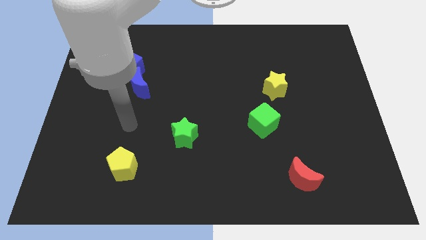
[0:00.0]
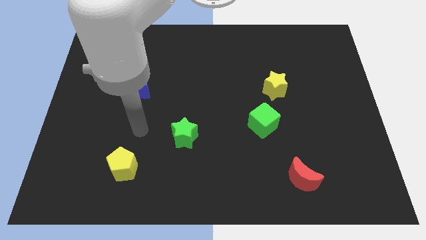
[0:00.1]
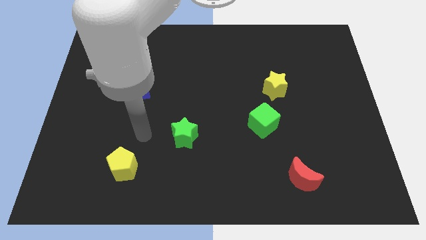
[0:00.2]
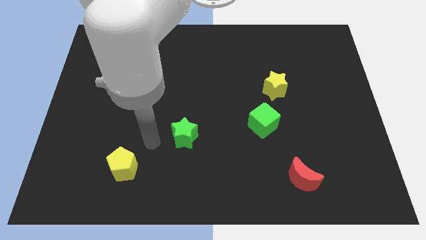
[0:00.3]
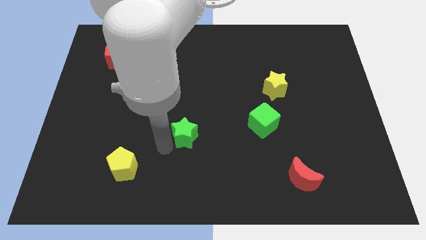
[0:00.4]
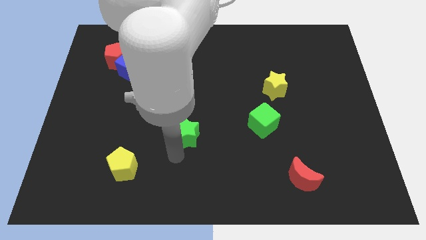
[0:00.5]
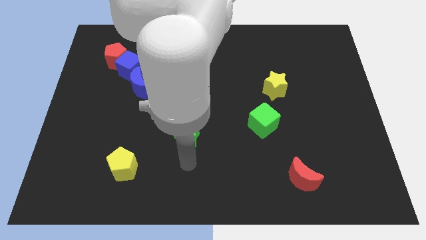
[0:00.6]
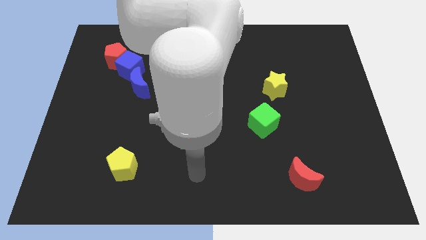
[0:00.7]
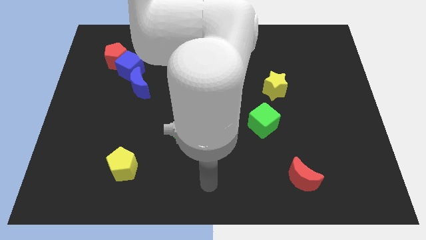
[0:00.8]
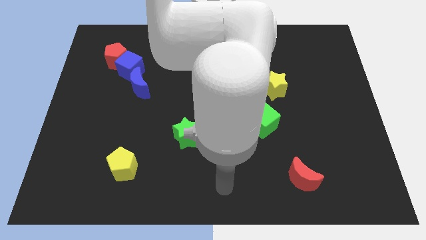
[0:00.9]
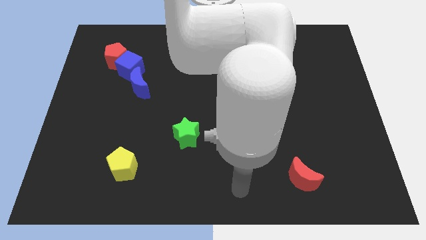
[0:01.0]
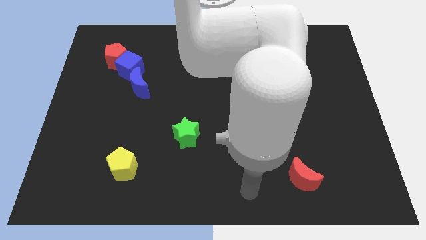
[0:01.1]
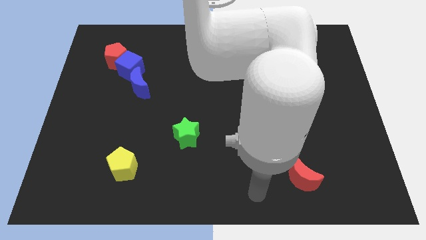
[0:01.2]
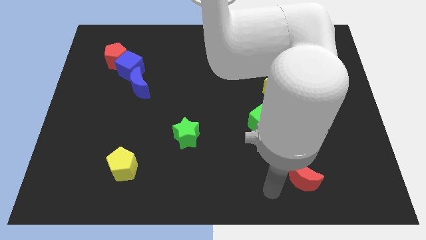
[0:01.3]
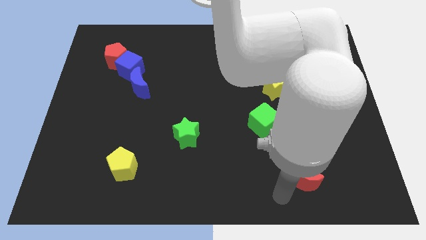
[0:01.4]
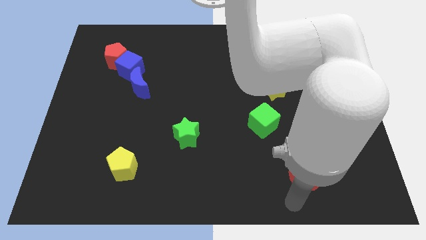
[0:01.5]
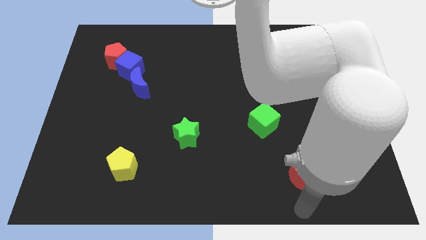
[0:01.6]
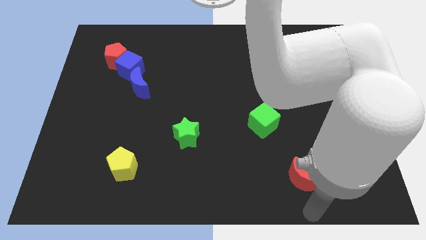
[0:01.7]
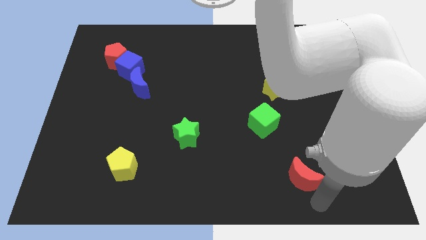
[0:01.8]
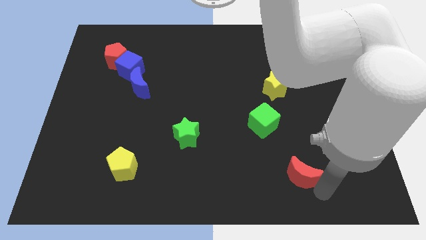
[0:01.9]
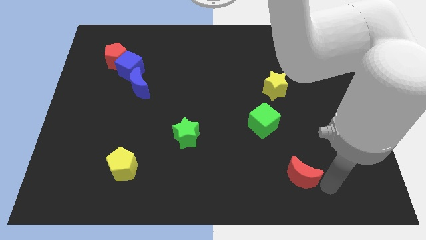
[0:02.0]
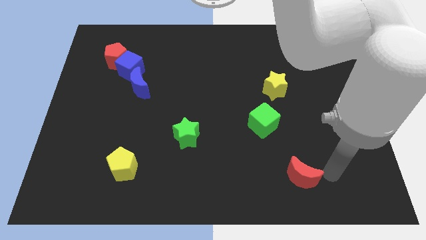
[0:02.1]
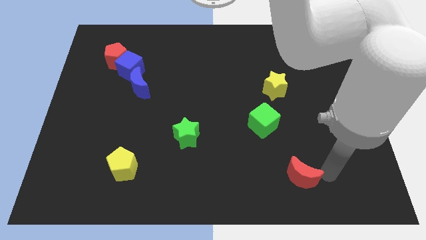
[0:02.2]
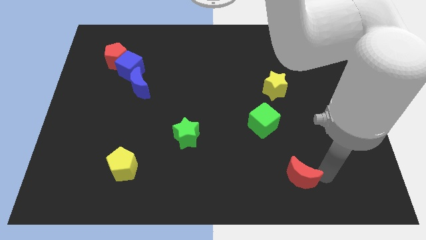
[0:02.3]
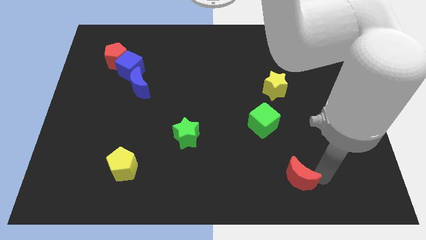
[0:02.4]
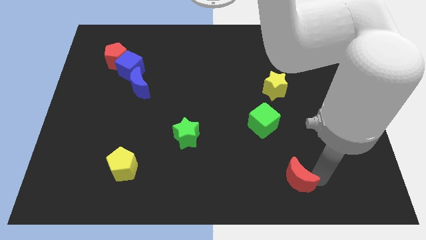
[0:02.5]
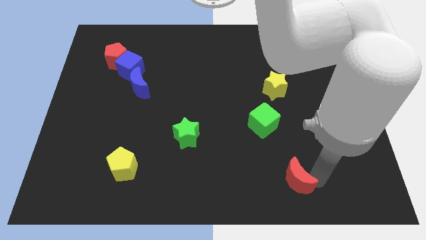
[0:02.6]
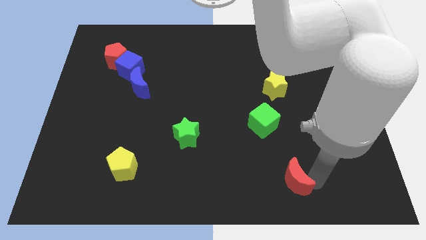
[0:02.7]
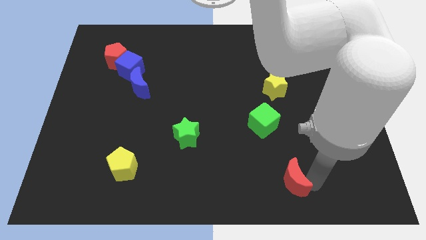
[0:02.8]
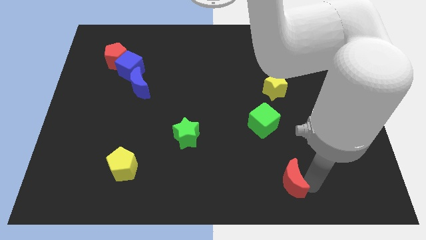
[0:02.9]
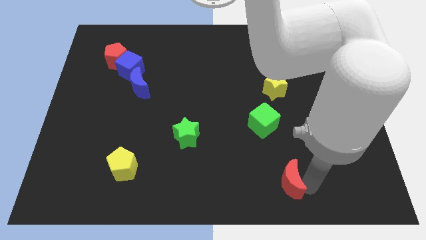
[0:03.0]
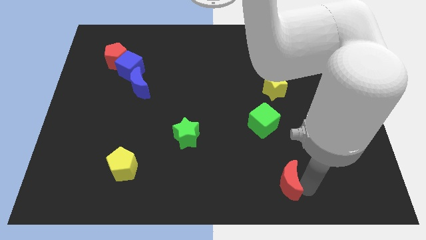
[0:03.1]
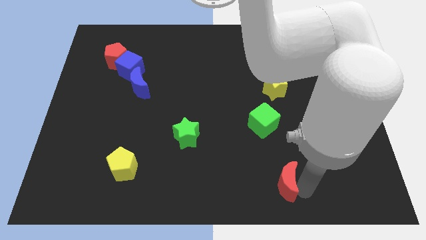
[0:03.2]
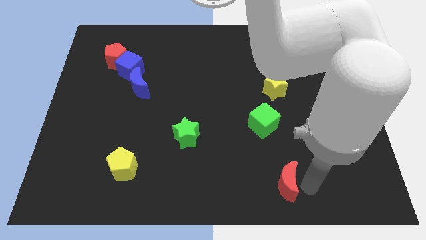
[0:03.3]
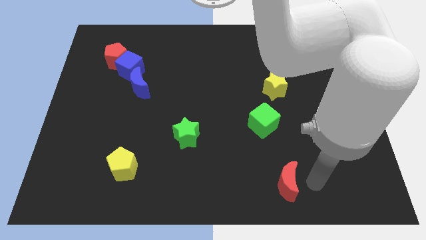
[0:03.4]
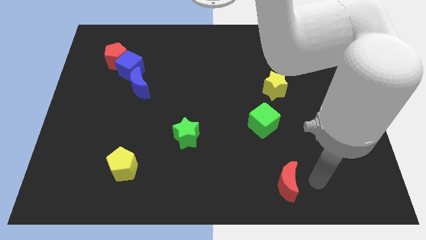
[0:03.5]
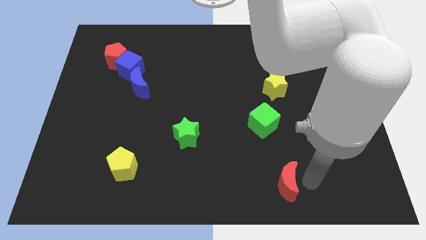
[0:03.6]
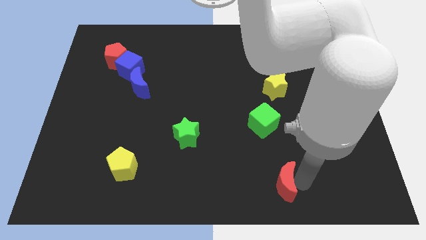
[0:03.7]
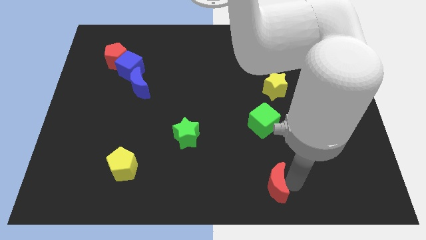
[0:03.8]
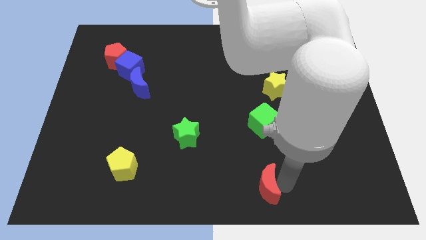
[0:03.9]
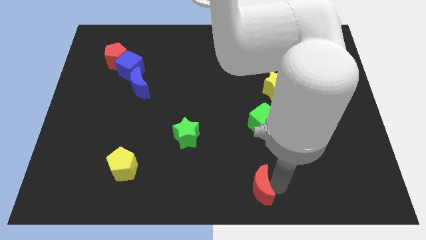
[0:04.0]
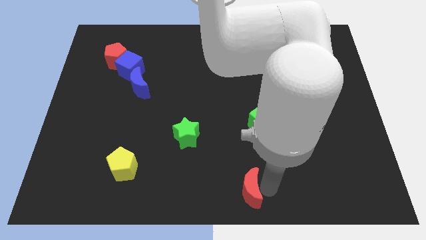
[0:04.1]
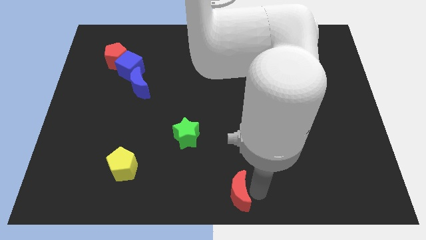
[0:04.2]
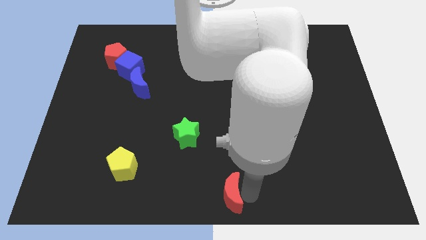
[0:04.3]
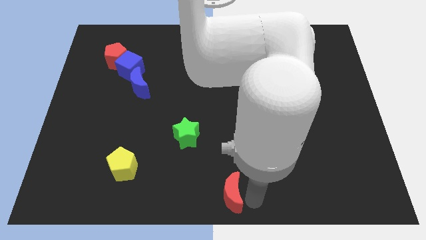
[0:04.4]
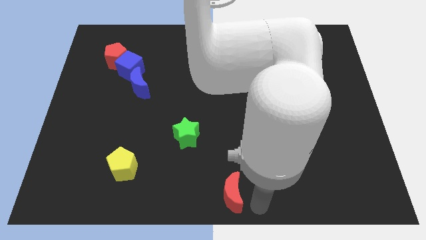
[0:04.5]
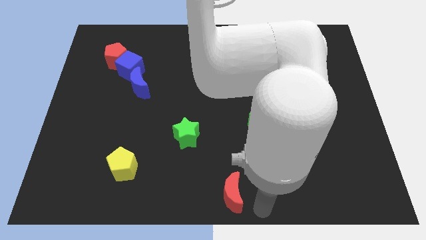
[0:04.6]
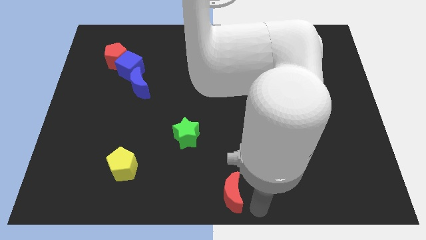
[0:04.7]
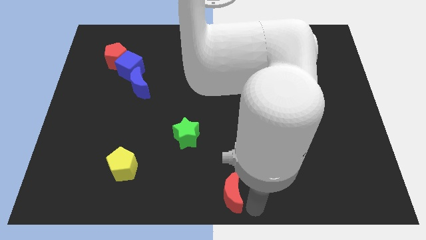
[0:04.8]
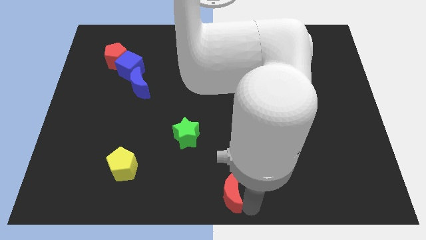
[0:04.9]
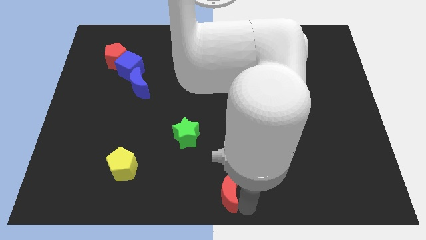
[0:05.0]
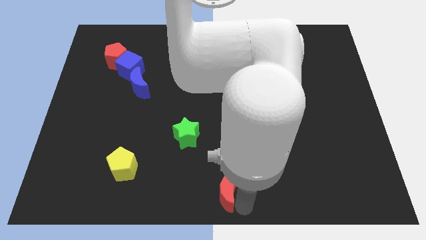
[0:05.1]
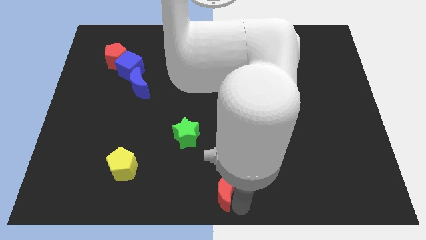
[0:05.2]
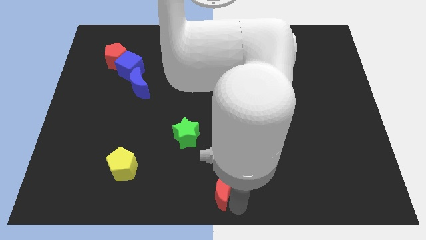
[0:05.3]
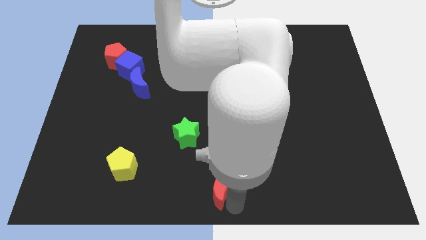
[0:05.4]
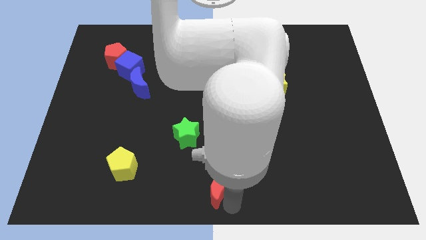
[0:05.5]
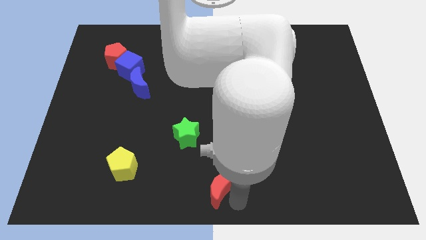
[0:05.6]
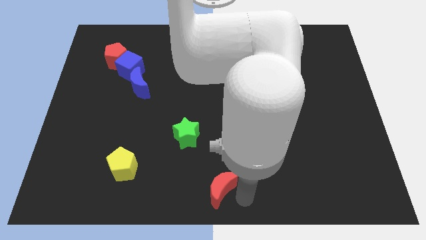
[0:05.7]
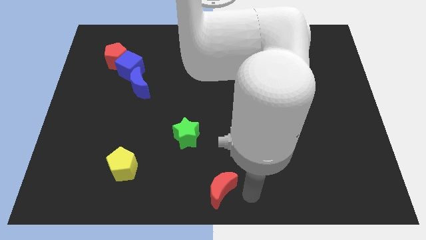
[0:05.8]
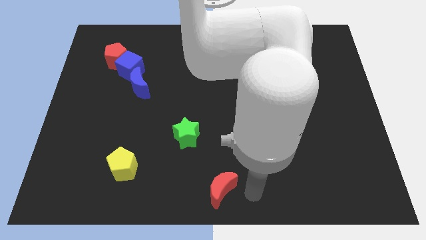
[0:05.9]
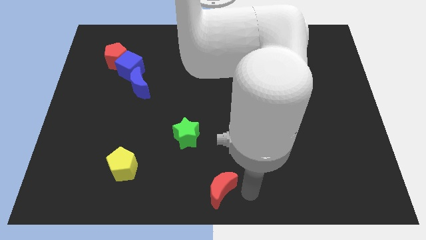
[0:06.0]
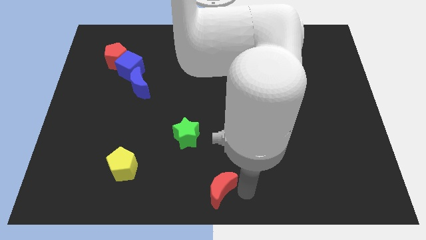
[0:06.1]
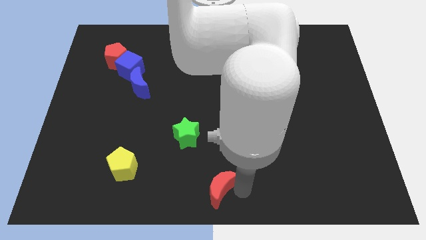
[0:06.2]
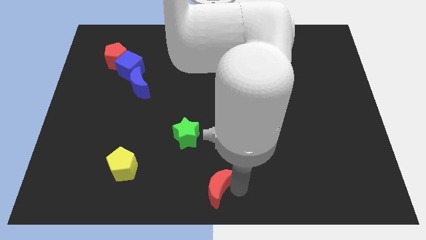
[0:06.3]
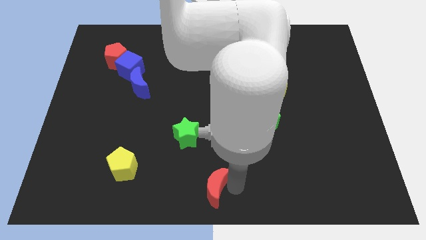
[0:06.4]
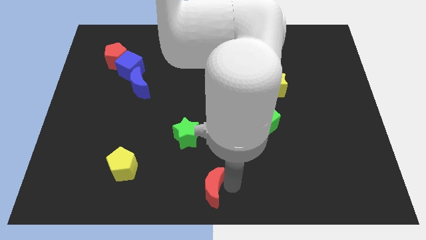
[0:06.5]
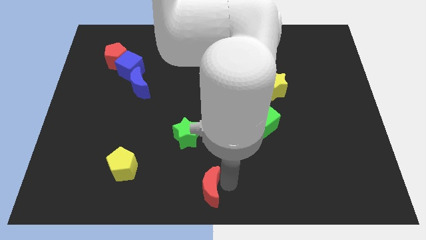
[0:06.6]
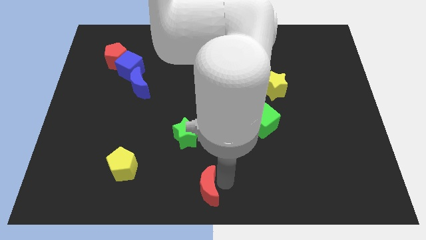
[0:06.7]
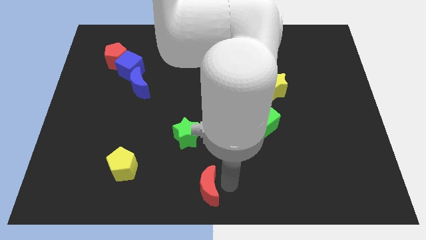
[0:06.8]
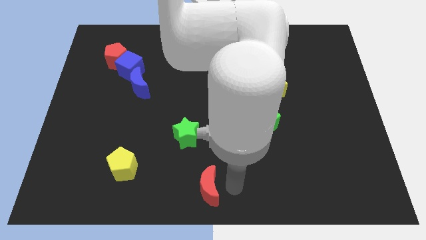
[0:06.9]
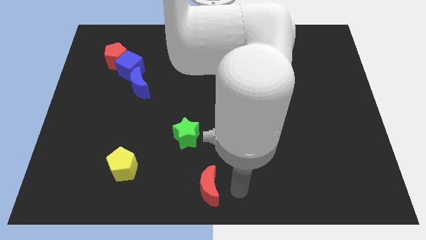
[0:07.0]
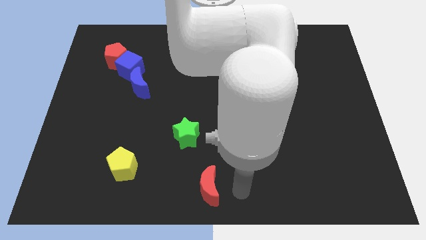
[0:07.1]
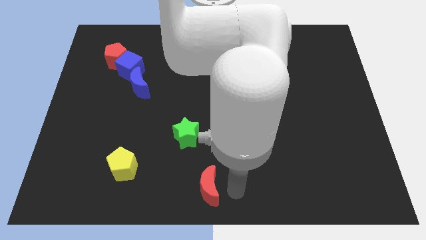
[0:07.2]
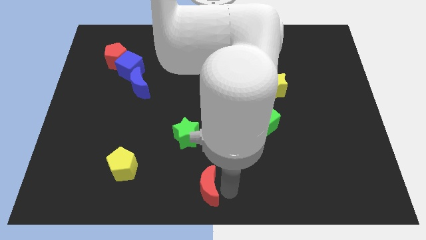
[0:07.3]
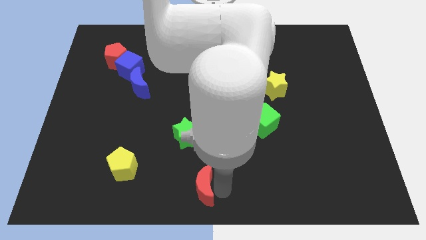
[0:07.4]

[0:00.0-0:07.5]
slide the red moon left

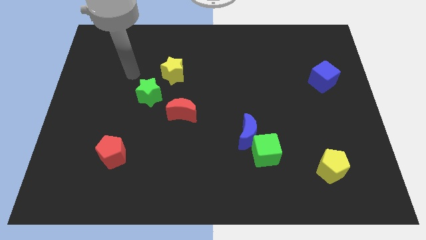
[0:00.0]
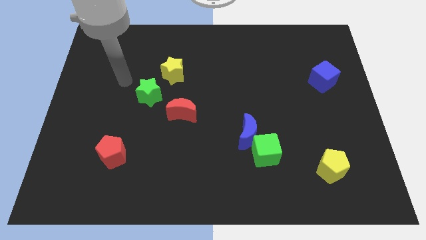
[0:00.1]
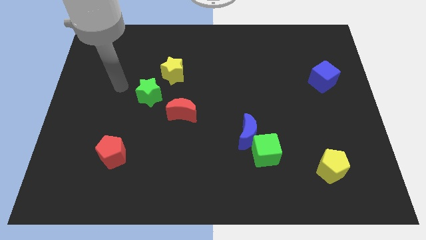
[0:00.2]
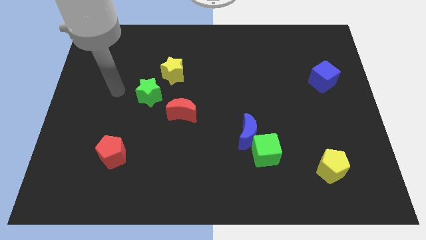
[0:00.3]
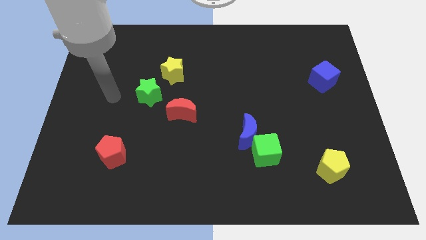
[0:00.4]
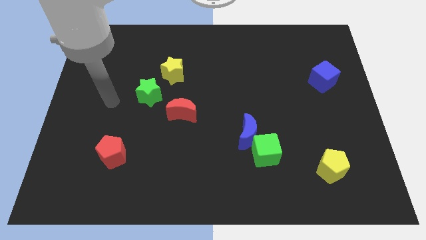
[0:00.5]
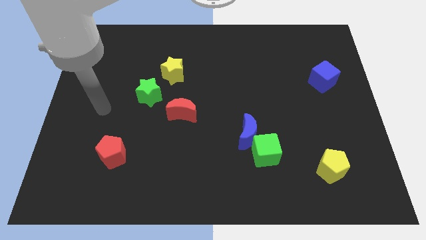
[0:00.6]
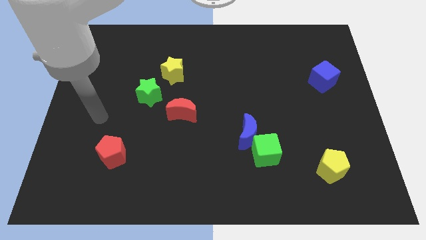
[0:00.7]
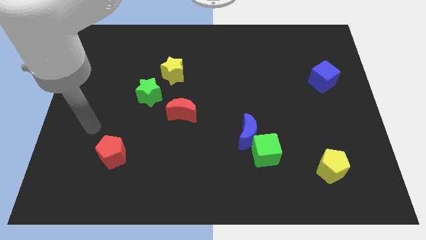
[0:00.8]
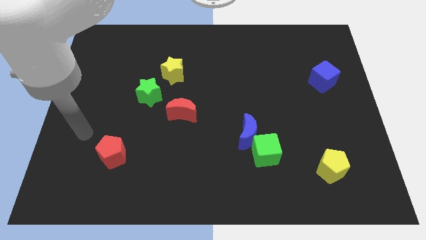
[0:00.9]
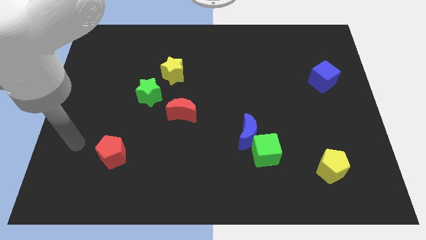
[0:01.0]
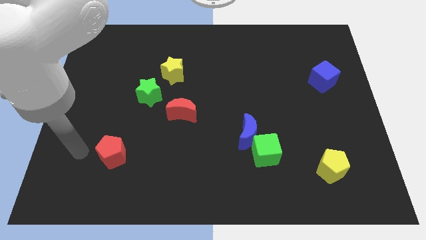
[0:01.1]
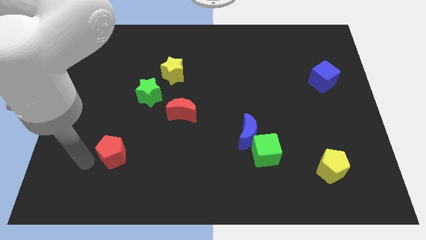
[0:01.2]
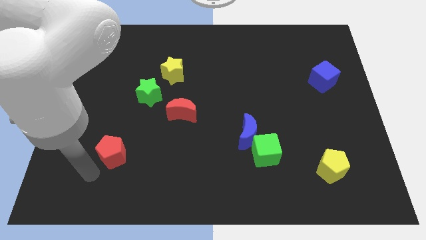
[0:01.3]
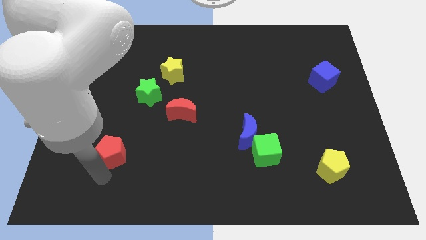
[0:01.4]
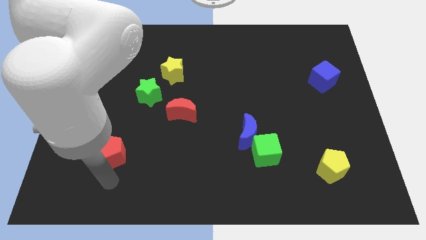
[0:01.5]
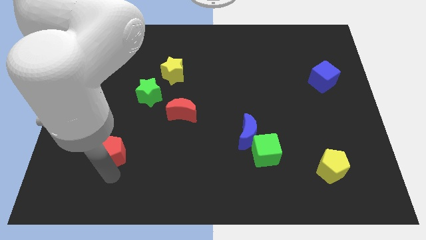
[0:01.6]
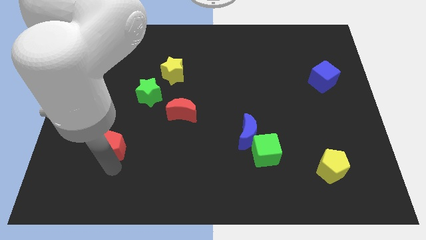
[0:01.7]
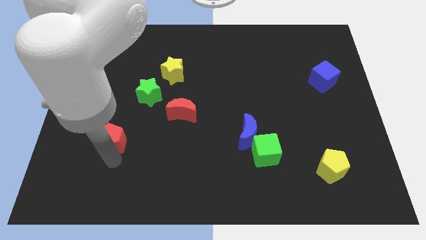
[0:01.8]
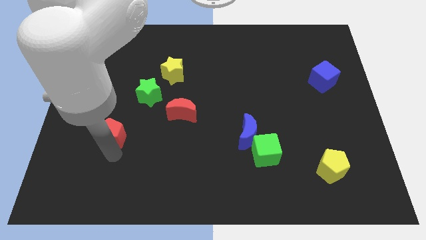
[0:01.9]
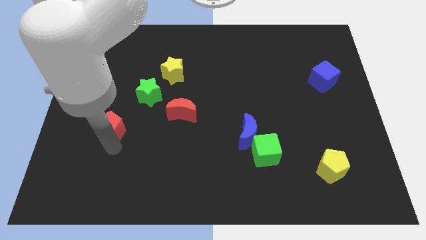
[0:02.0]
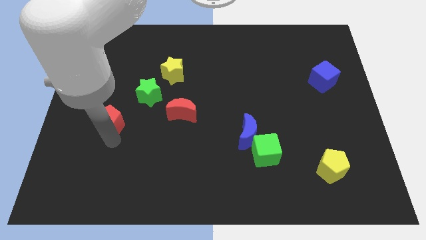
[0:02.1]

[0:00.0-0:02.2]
slide the red pentagon a bit up
